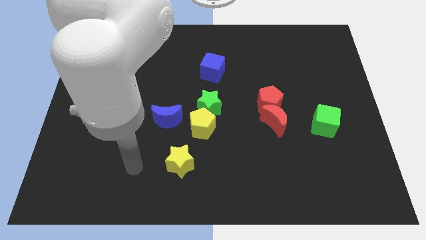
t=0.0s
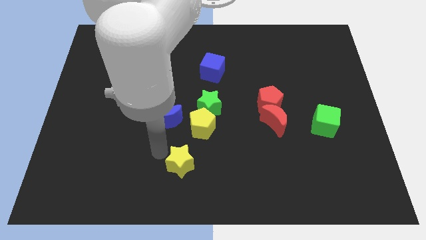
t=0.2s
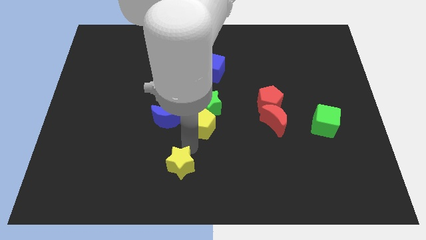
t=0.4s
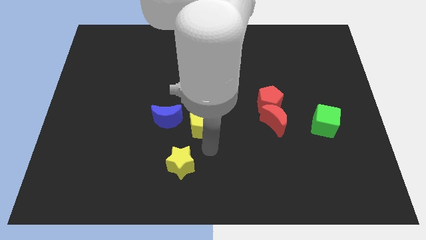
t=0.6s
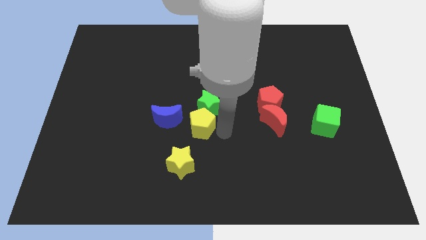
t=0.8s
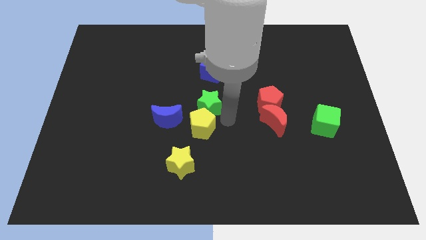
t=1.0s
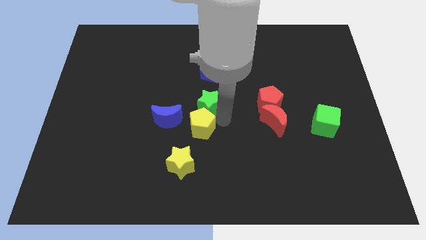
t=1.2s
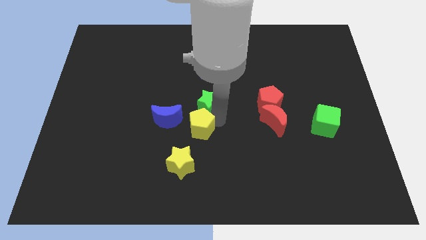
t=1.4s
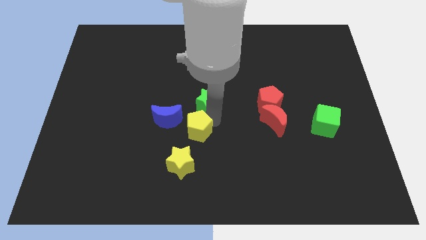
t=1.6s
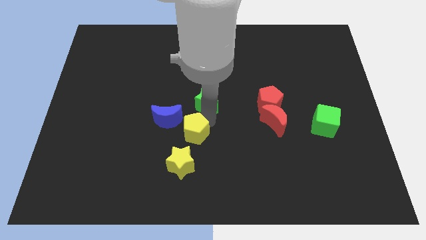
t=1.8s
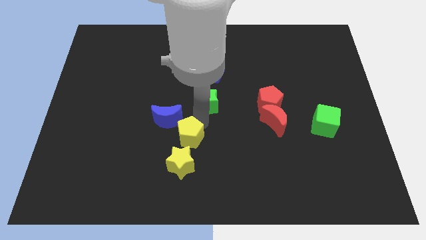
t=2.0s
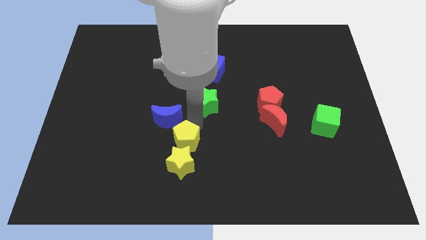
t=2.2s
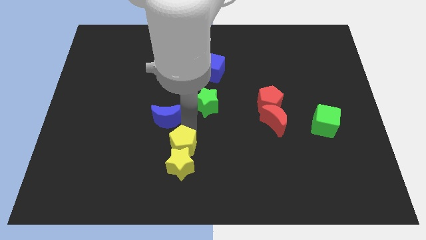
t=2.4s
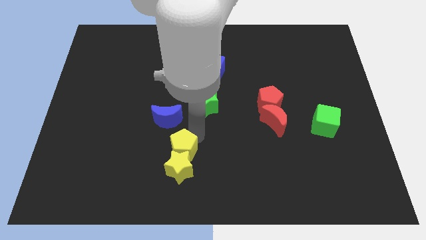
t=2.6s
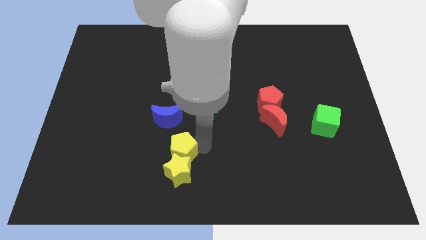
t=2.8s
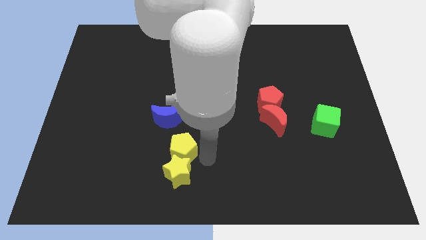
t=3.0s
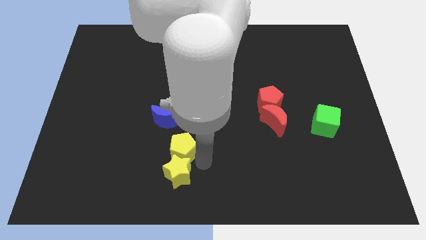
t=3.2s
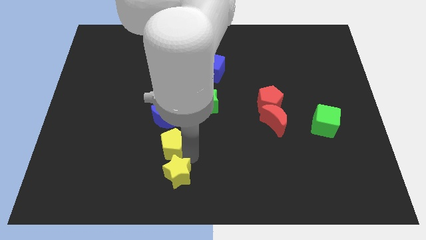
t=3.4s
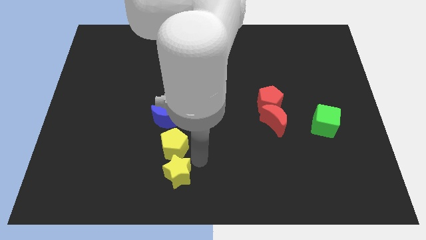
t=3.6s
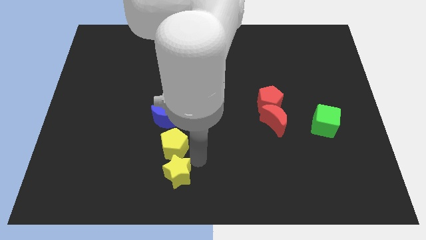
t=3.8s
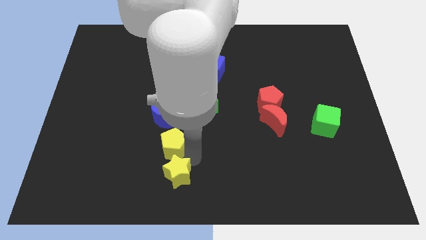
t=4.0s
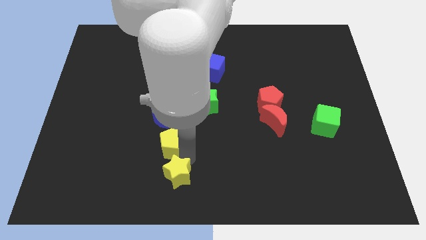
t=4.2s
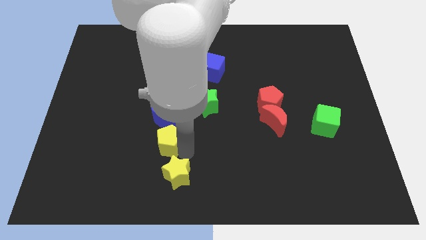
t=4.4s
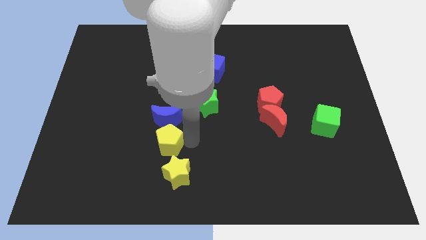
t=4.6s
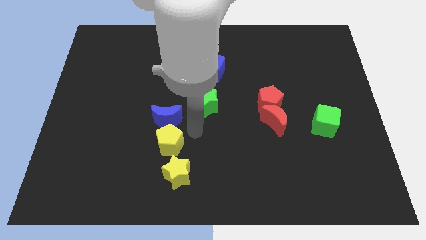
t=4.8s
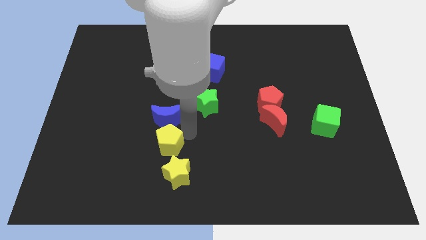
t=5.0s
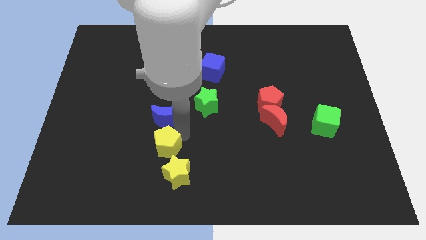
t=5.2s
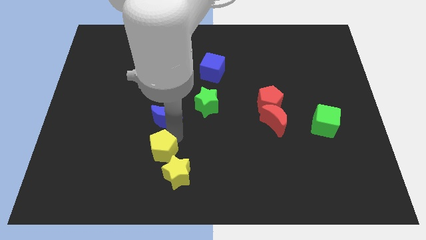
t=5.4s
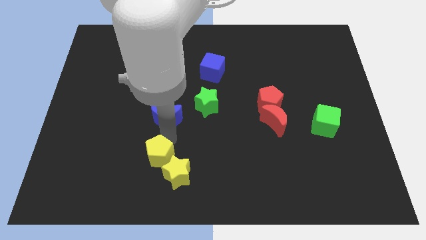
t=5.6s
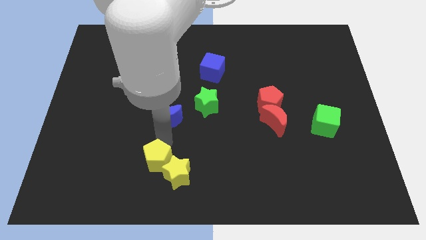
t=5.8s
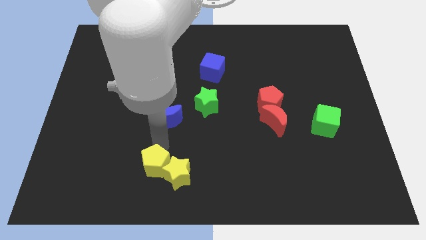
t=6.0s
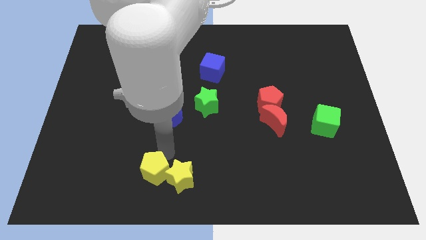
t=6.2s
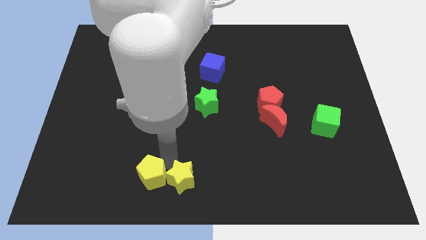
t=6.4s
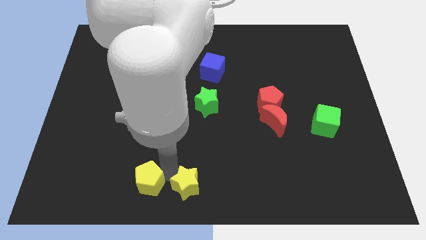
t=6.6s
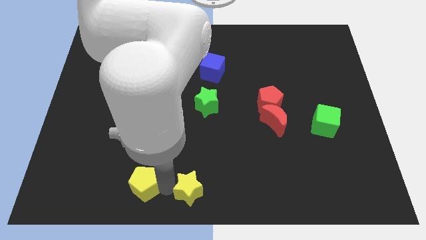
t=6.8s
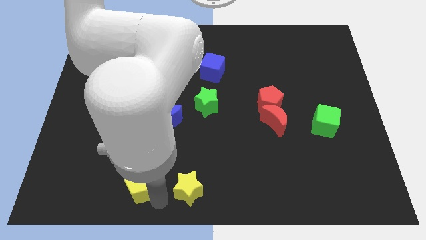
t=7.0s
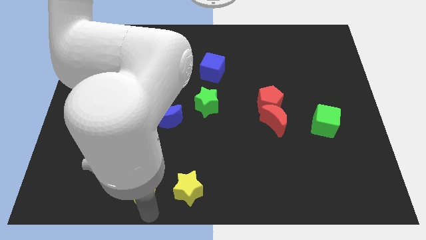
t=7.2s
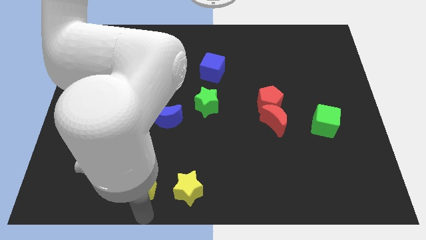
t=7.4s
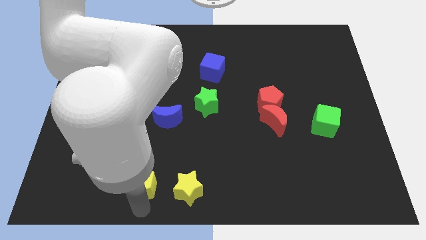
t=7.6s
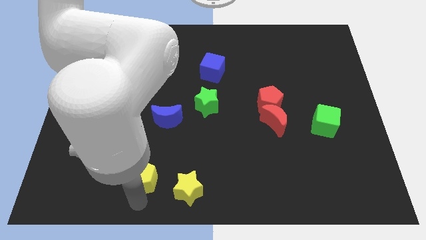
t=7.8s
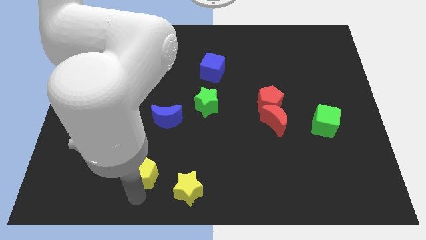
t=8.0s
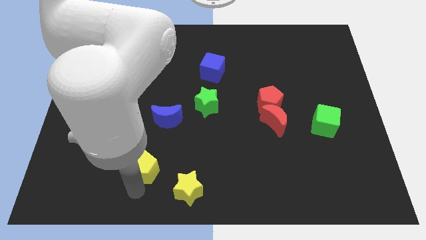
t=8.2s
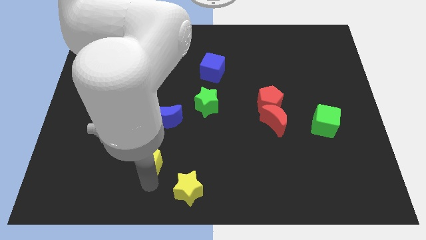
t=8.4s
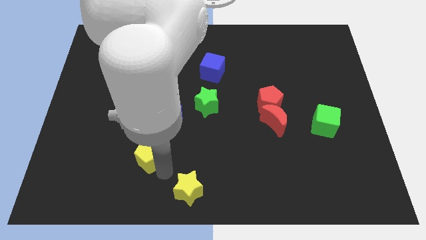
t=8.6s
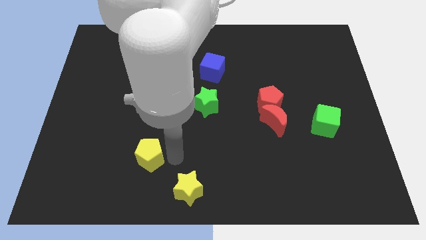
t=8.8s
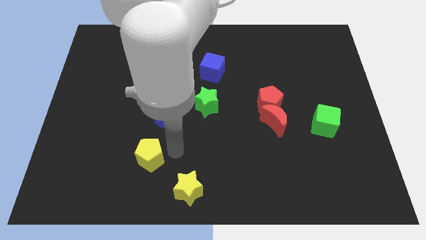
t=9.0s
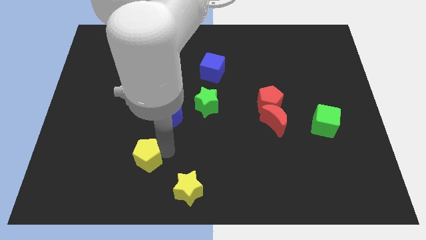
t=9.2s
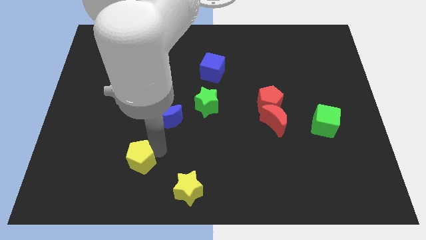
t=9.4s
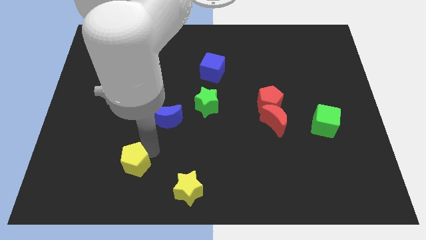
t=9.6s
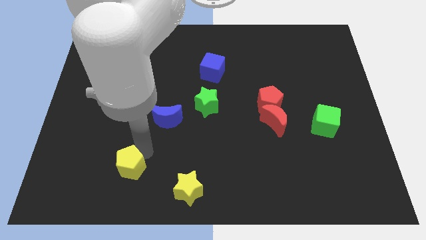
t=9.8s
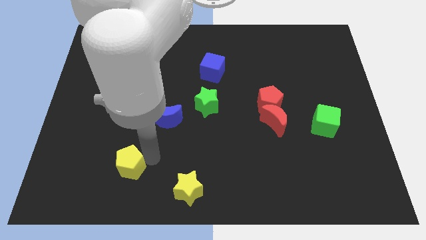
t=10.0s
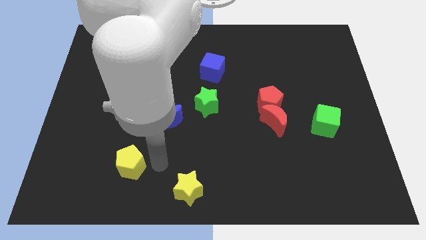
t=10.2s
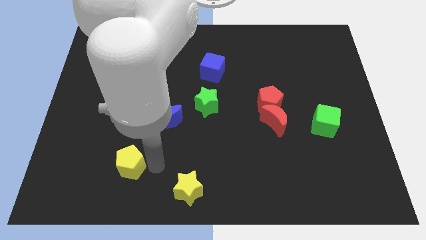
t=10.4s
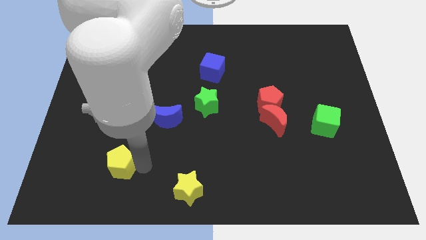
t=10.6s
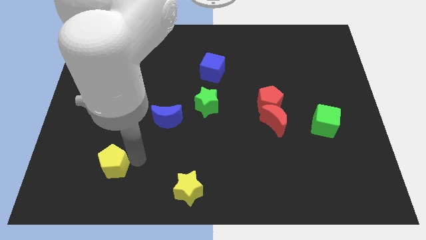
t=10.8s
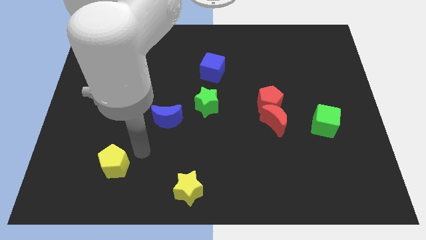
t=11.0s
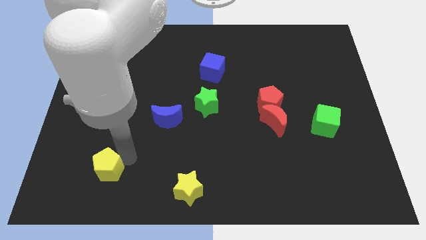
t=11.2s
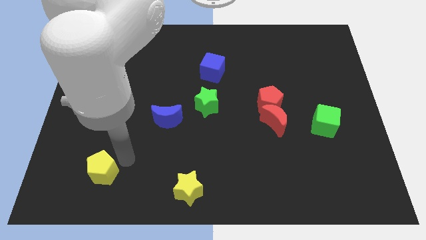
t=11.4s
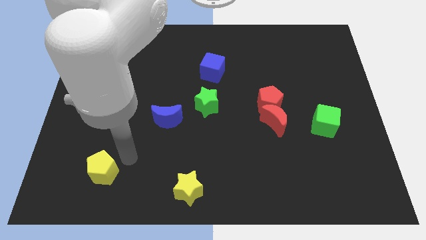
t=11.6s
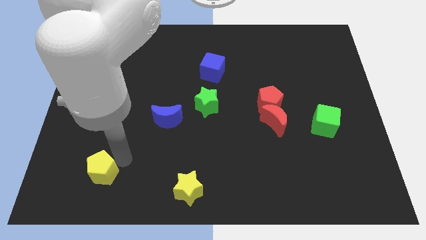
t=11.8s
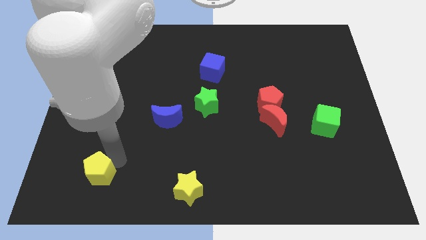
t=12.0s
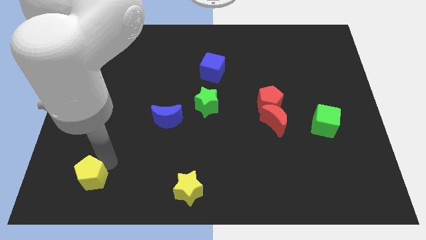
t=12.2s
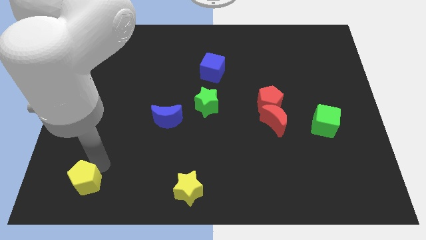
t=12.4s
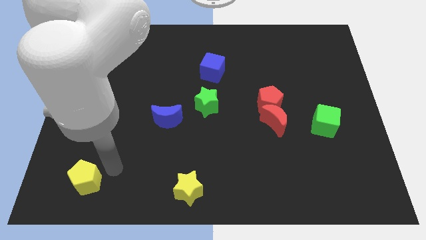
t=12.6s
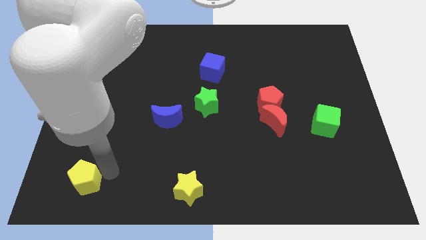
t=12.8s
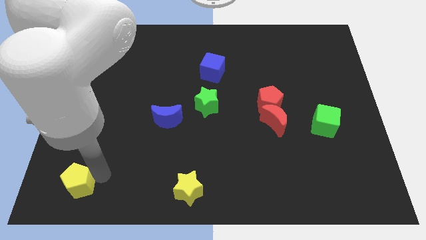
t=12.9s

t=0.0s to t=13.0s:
push the yellow pentagon to the bottom left
